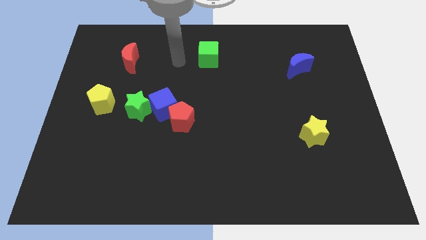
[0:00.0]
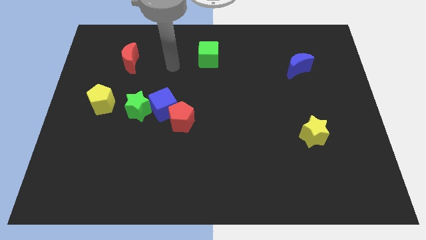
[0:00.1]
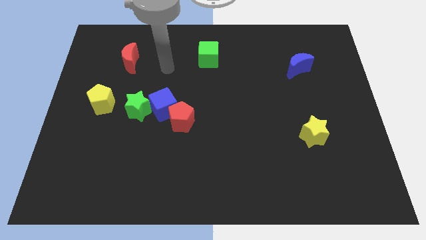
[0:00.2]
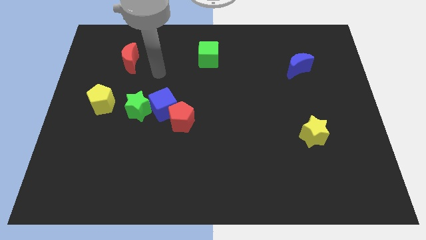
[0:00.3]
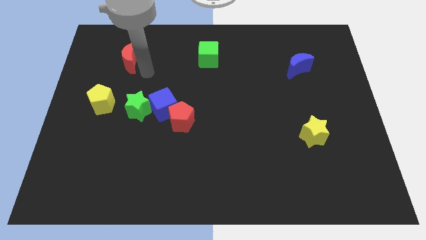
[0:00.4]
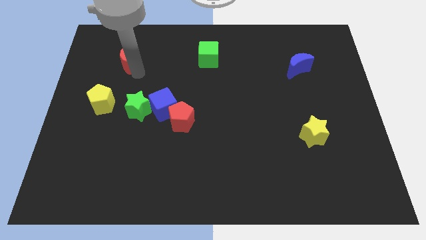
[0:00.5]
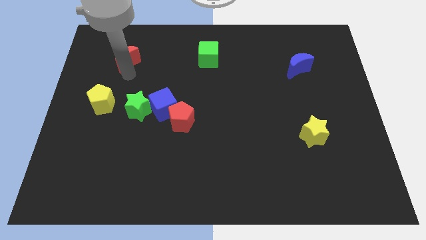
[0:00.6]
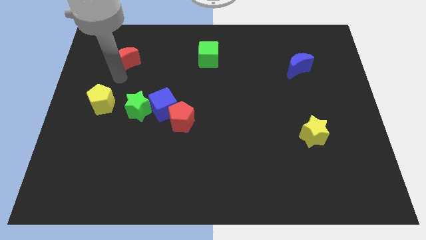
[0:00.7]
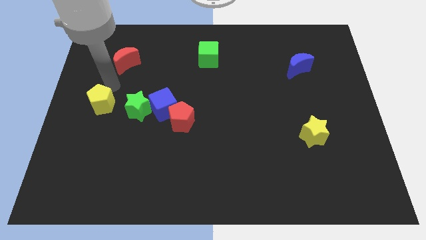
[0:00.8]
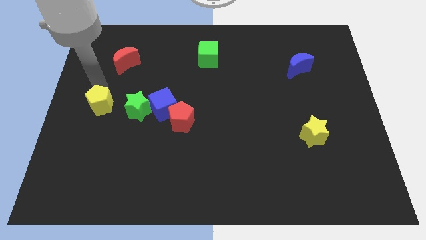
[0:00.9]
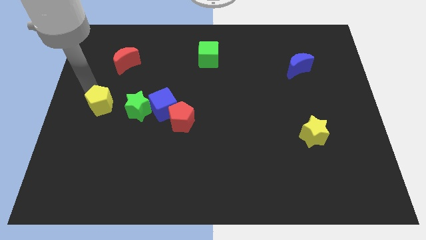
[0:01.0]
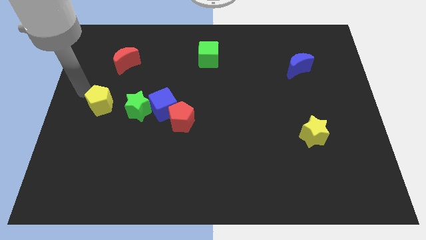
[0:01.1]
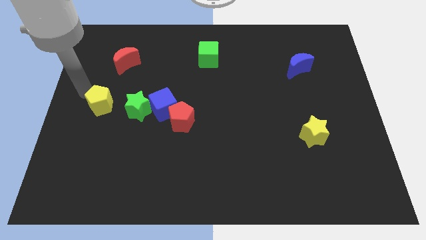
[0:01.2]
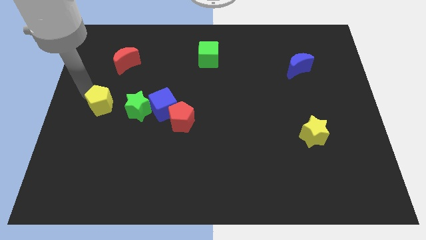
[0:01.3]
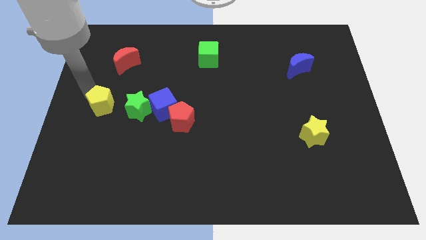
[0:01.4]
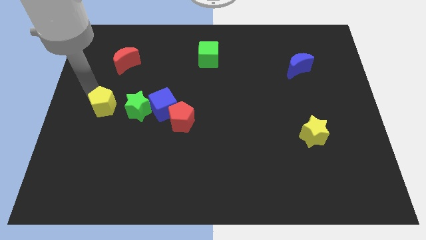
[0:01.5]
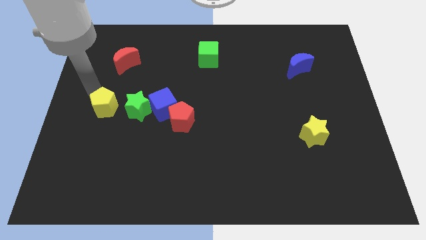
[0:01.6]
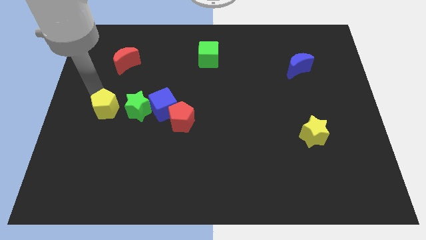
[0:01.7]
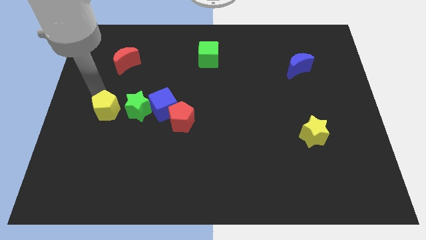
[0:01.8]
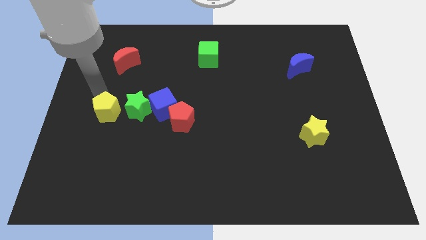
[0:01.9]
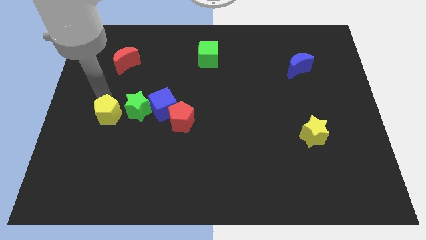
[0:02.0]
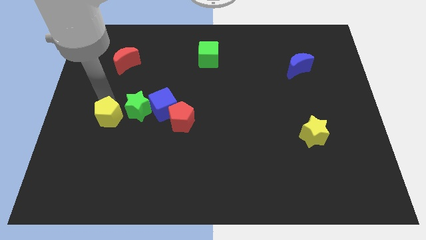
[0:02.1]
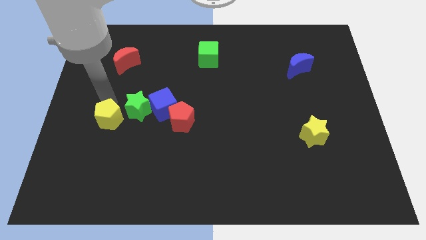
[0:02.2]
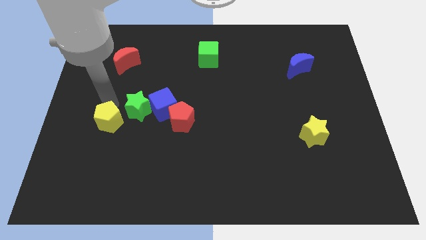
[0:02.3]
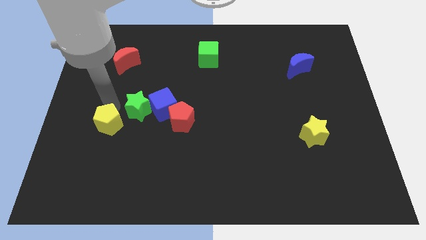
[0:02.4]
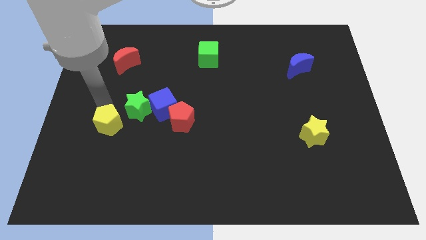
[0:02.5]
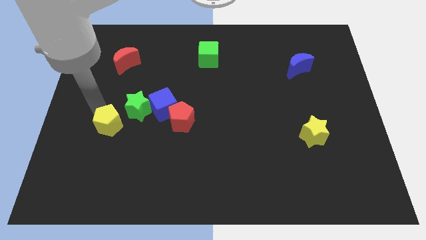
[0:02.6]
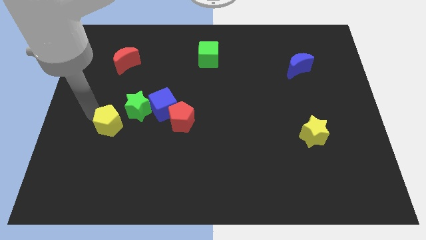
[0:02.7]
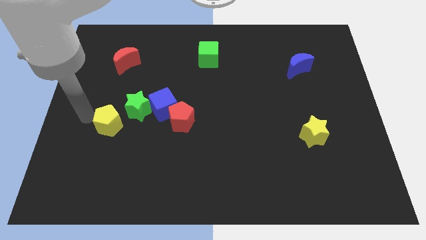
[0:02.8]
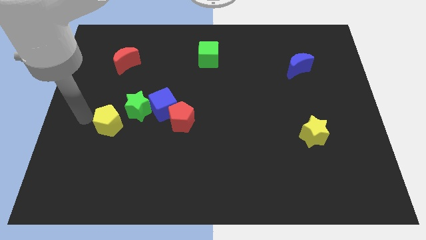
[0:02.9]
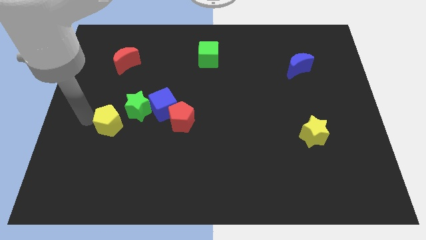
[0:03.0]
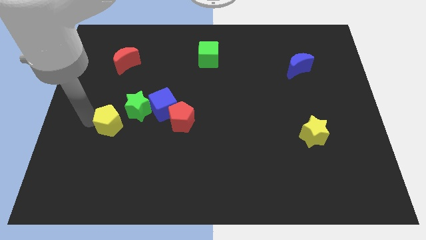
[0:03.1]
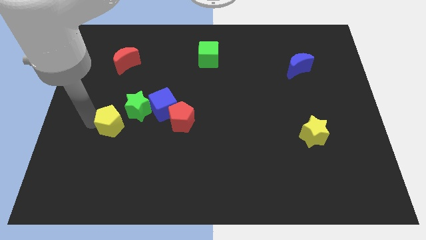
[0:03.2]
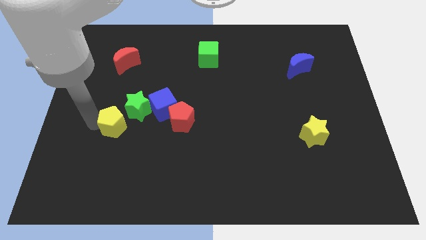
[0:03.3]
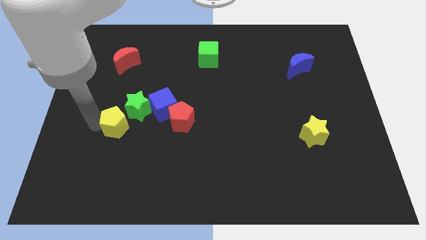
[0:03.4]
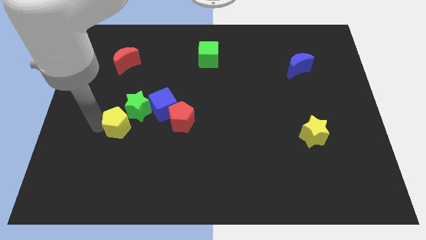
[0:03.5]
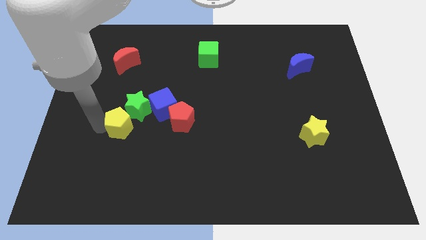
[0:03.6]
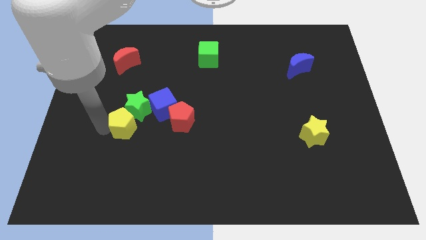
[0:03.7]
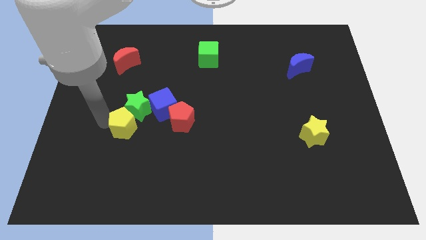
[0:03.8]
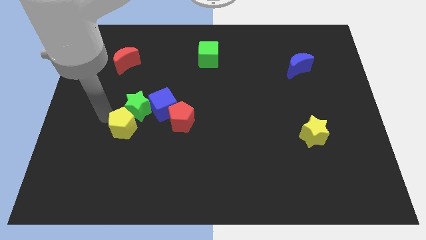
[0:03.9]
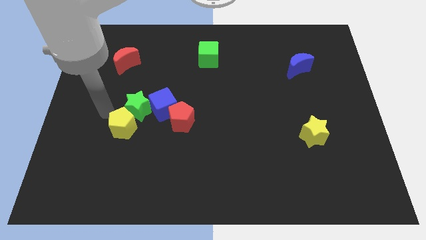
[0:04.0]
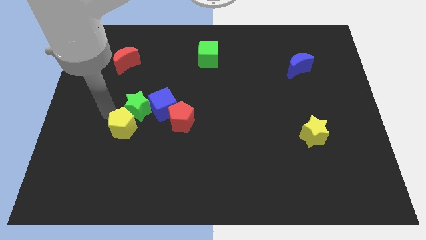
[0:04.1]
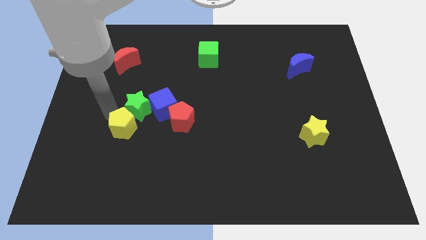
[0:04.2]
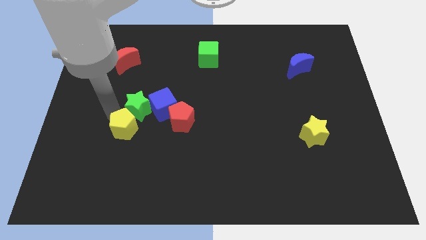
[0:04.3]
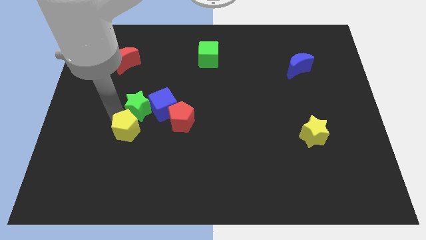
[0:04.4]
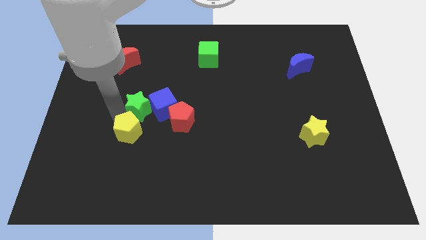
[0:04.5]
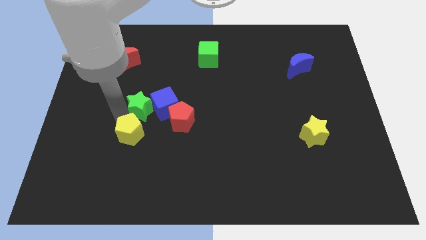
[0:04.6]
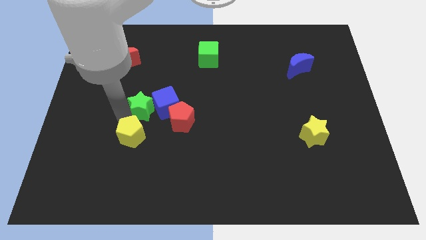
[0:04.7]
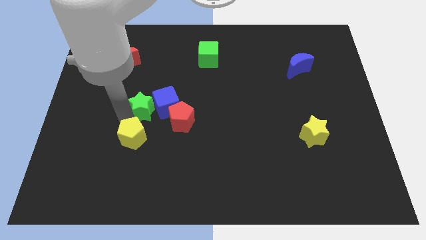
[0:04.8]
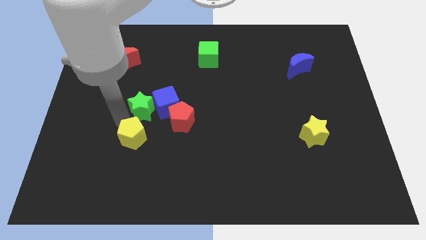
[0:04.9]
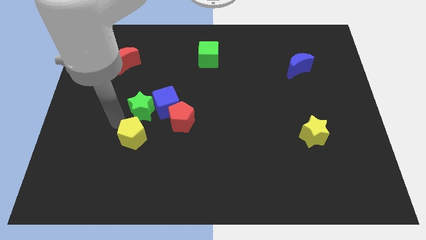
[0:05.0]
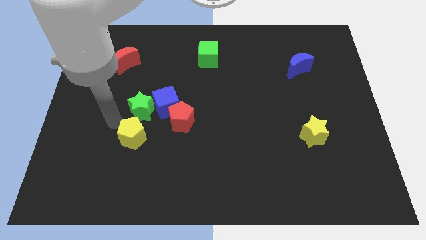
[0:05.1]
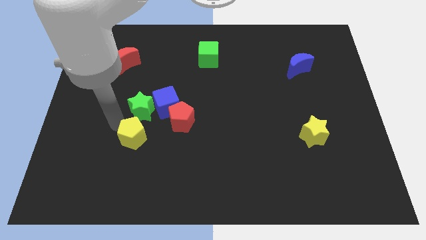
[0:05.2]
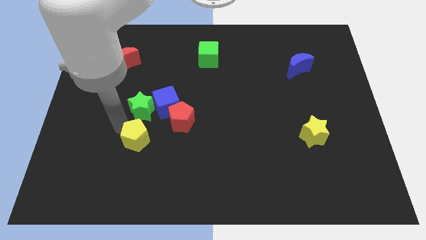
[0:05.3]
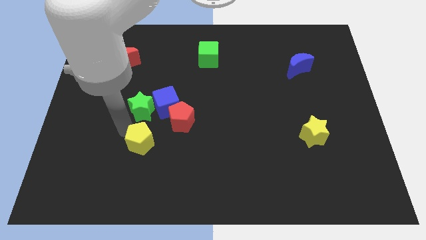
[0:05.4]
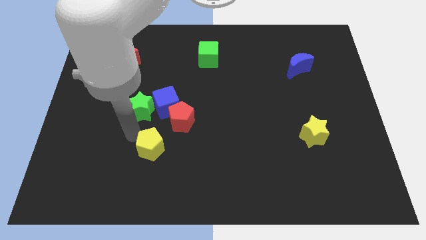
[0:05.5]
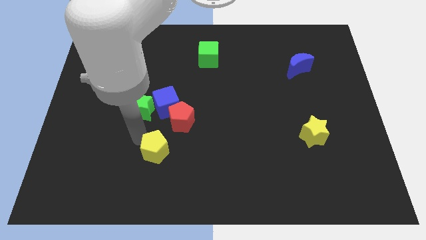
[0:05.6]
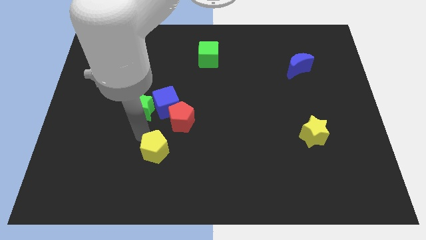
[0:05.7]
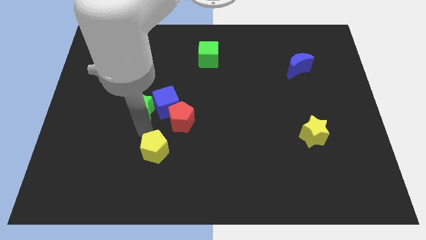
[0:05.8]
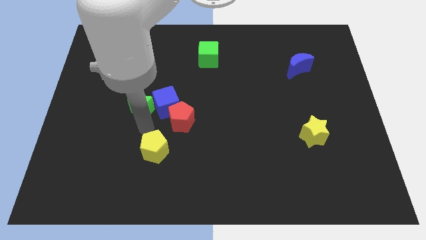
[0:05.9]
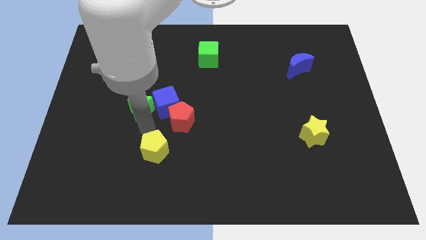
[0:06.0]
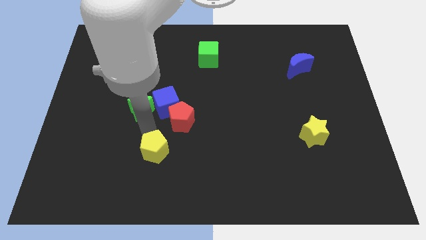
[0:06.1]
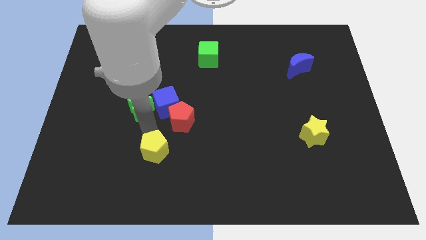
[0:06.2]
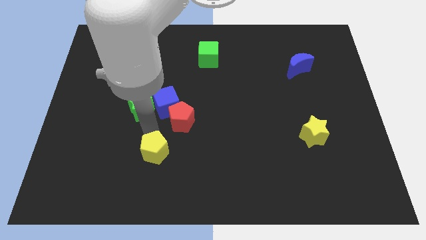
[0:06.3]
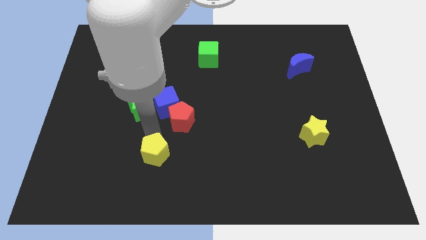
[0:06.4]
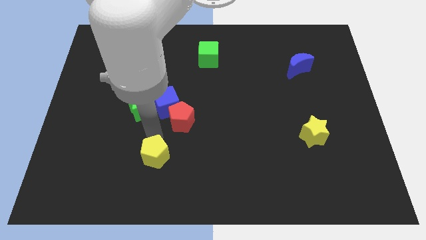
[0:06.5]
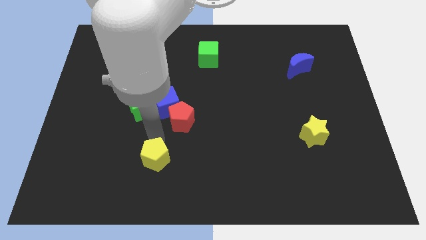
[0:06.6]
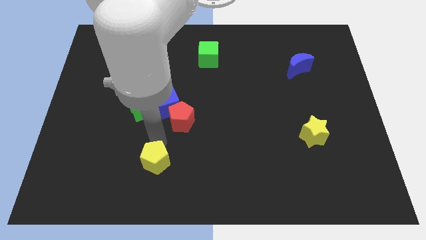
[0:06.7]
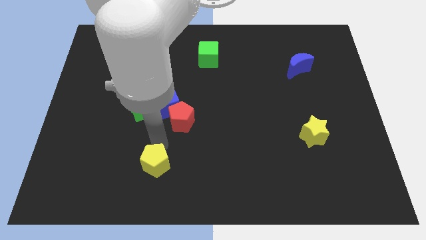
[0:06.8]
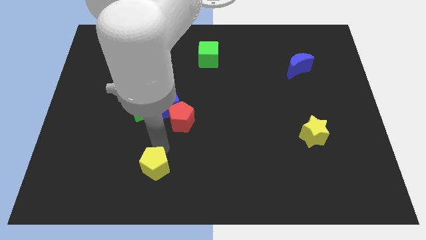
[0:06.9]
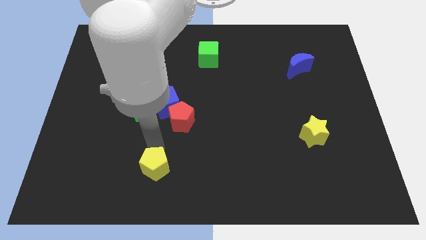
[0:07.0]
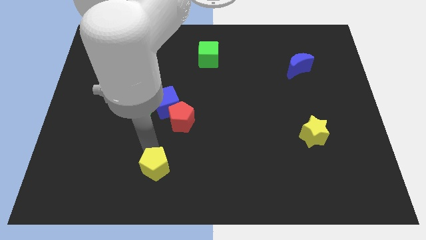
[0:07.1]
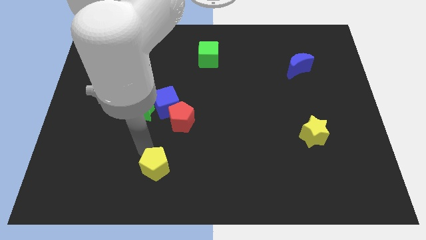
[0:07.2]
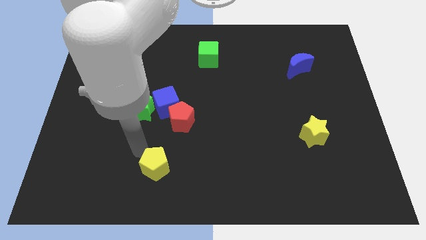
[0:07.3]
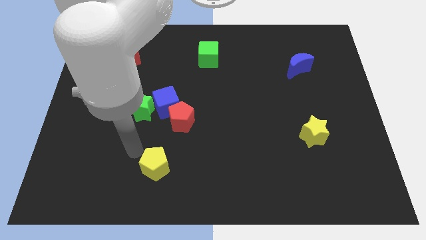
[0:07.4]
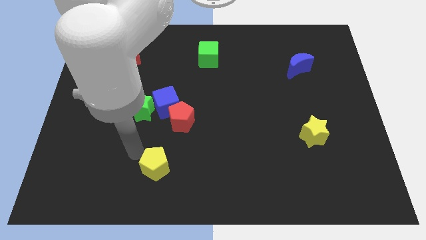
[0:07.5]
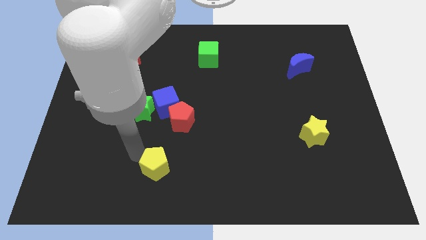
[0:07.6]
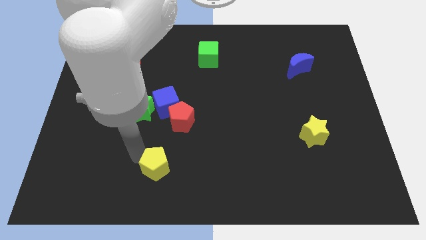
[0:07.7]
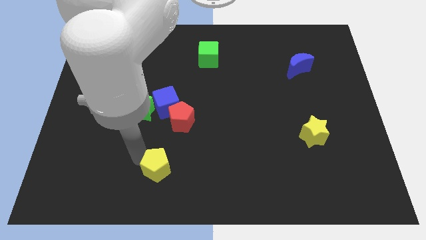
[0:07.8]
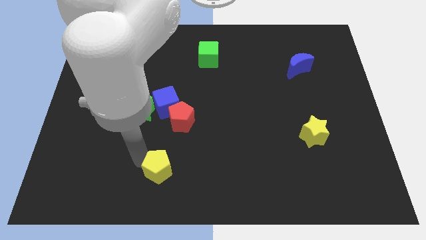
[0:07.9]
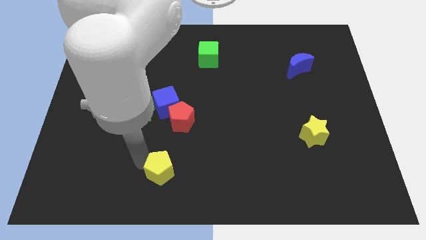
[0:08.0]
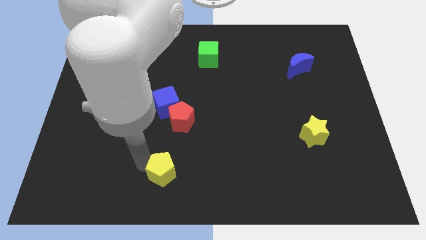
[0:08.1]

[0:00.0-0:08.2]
move the yellow pentagon to the bottom side
